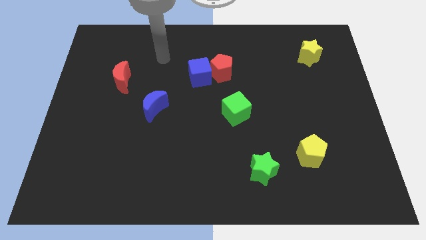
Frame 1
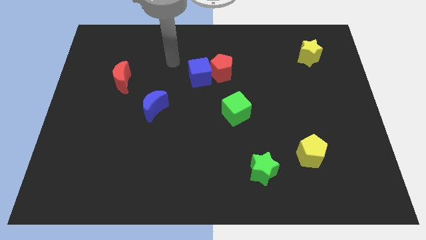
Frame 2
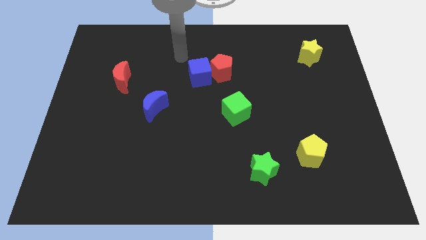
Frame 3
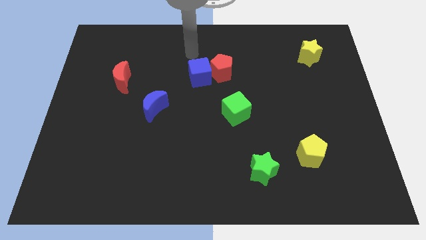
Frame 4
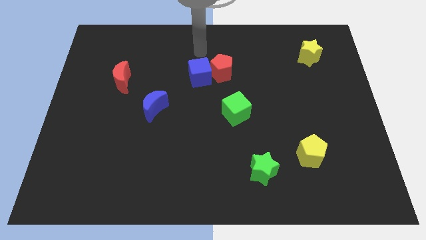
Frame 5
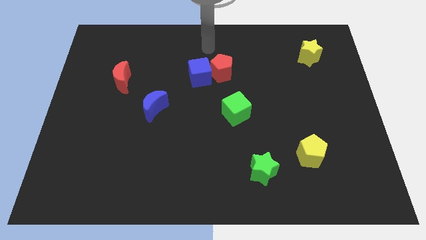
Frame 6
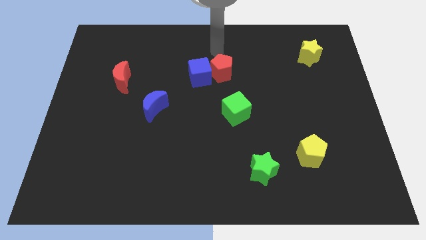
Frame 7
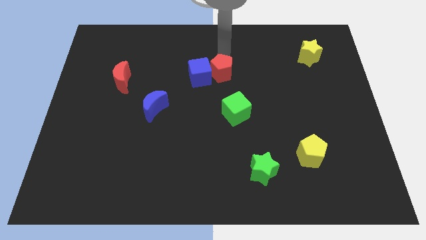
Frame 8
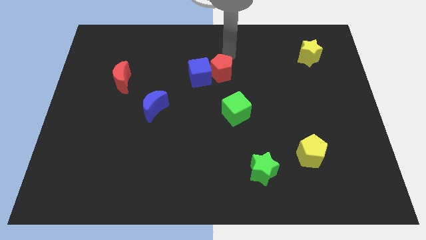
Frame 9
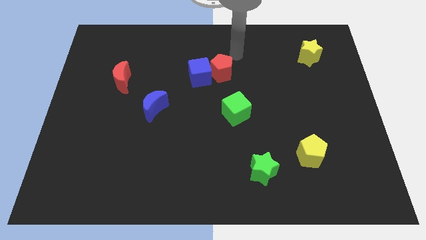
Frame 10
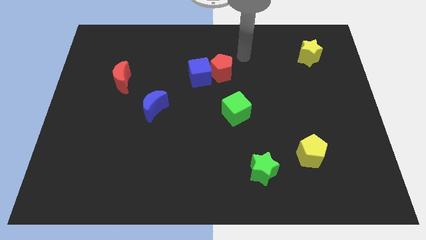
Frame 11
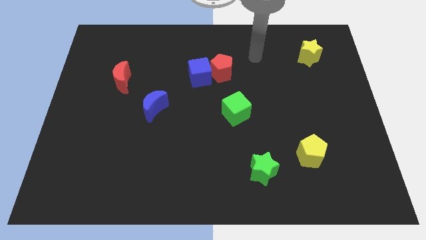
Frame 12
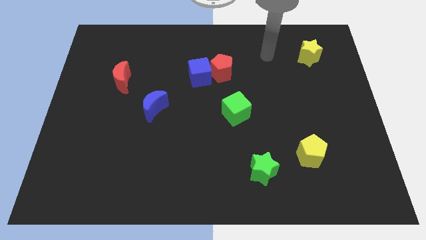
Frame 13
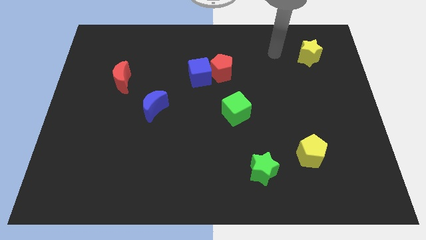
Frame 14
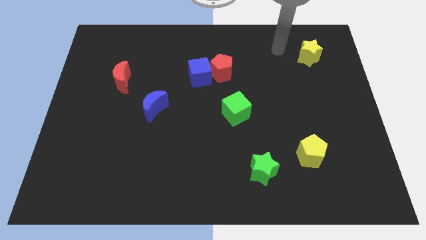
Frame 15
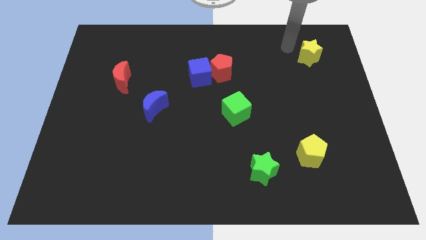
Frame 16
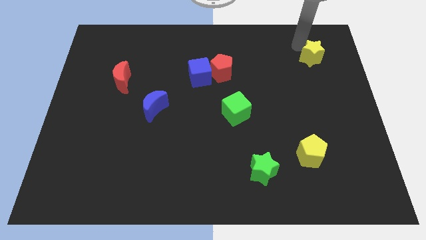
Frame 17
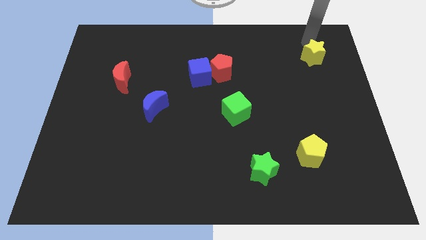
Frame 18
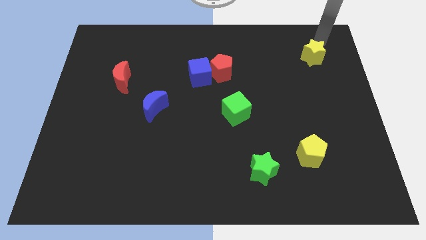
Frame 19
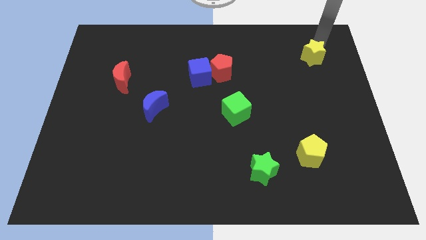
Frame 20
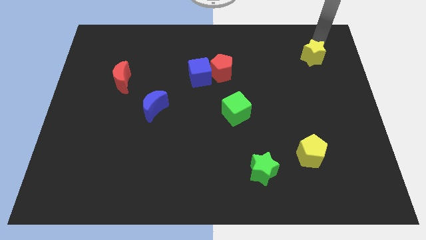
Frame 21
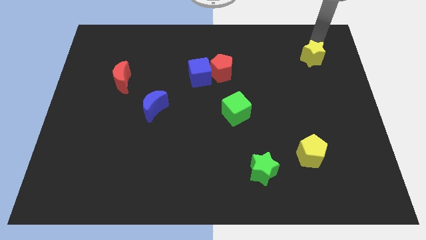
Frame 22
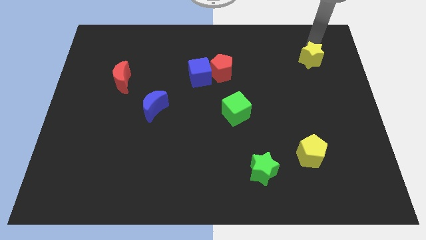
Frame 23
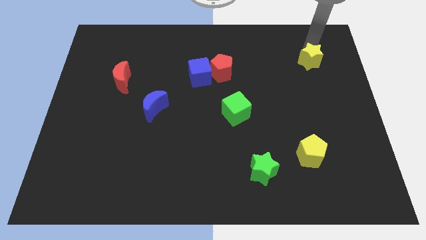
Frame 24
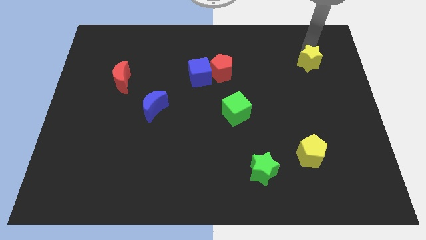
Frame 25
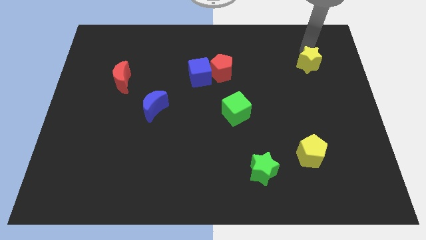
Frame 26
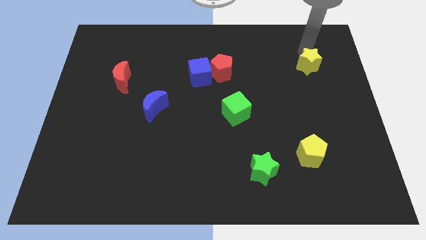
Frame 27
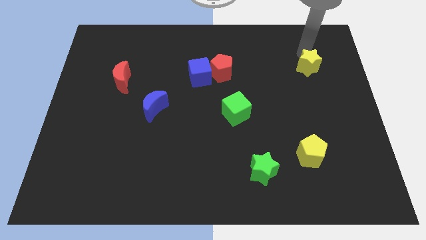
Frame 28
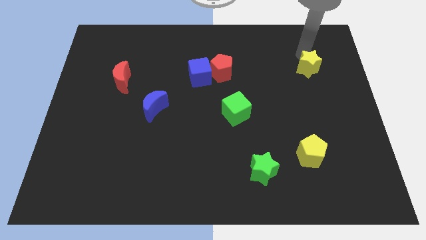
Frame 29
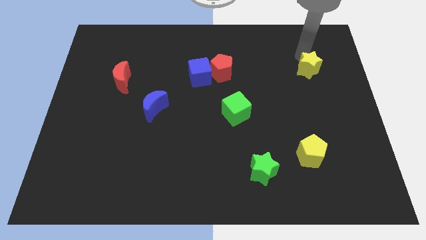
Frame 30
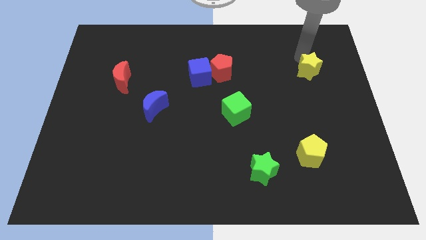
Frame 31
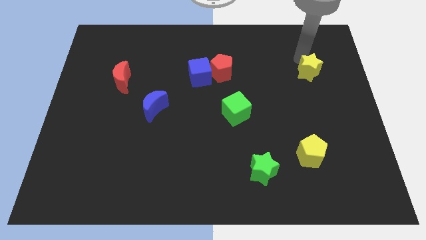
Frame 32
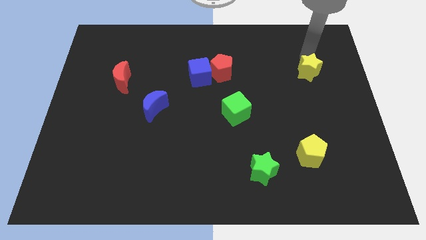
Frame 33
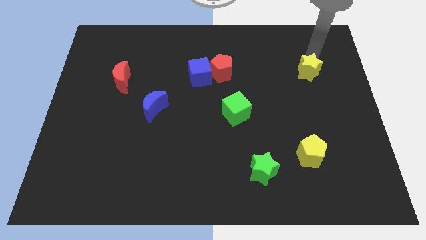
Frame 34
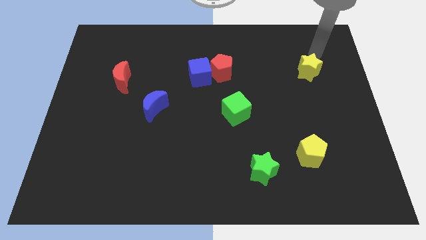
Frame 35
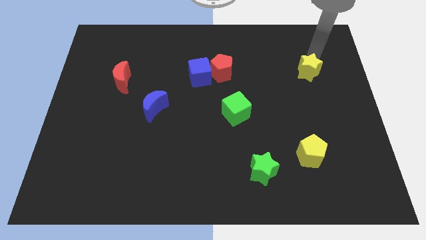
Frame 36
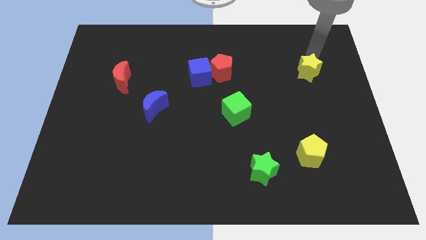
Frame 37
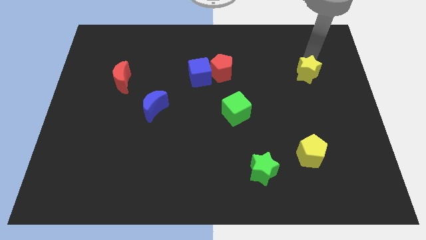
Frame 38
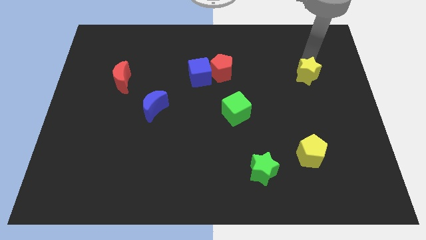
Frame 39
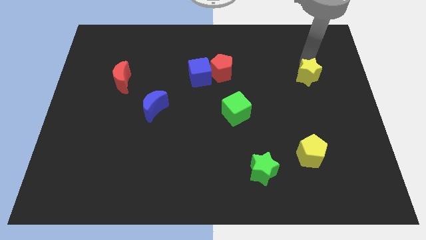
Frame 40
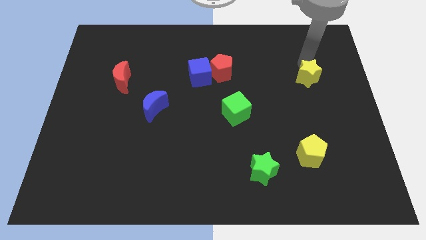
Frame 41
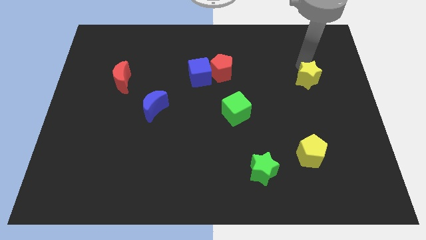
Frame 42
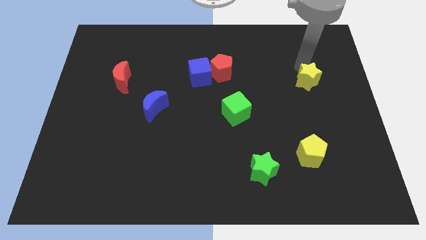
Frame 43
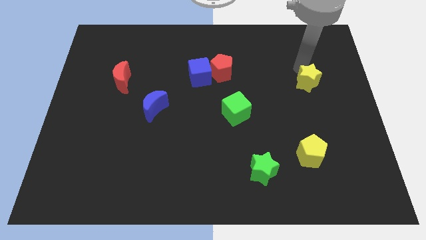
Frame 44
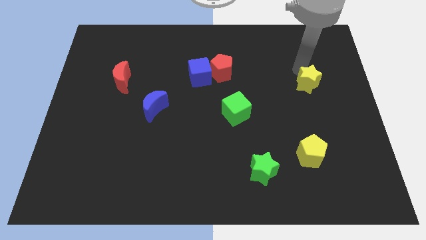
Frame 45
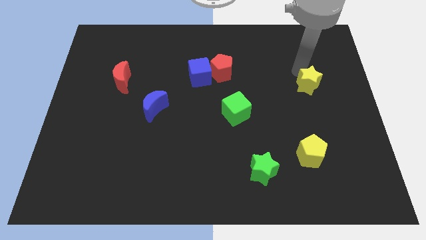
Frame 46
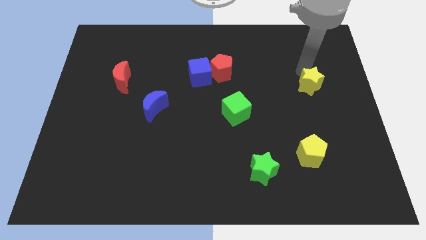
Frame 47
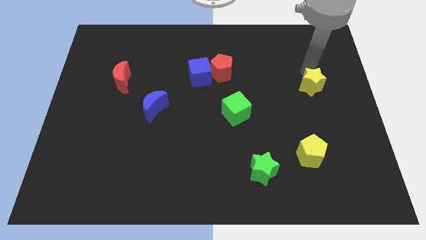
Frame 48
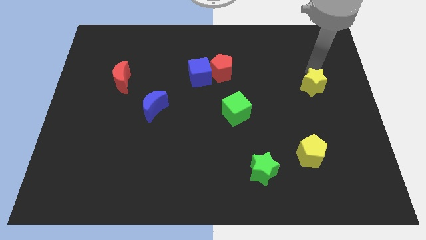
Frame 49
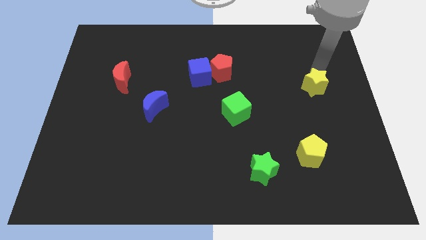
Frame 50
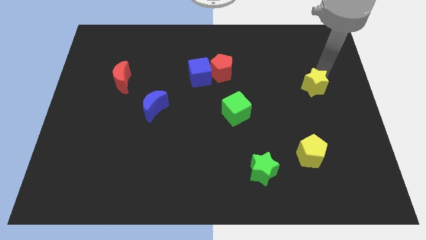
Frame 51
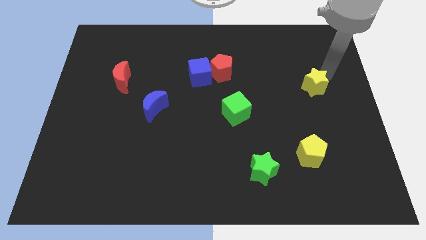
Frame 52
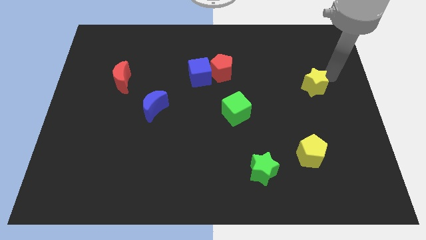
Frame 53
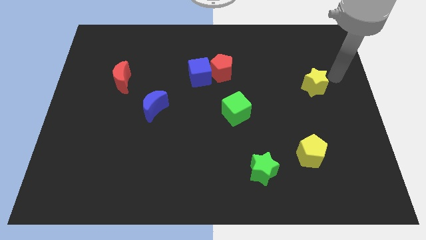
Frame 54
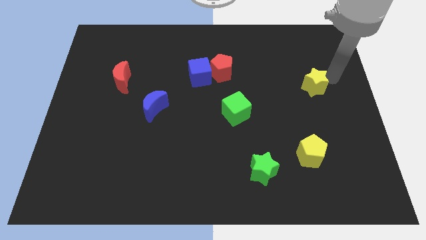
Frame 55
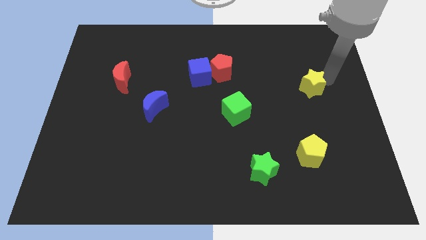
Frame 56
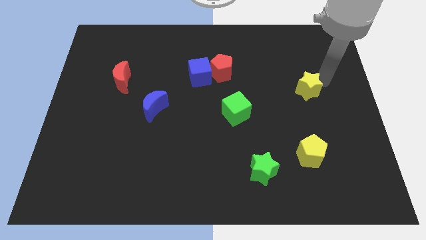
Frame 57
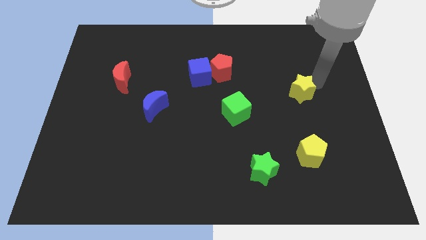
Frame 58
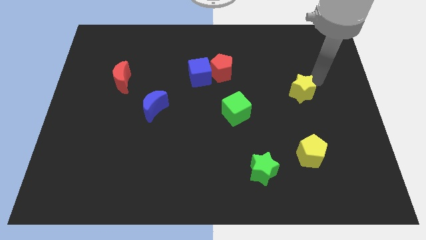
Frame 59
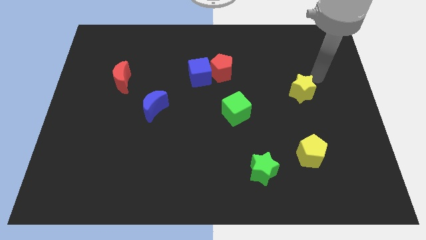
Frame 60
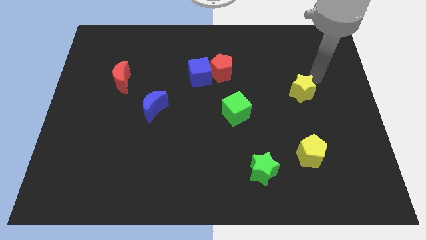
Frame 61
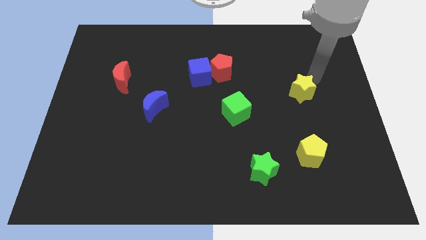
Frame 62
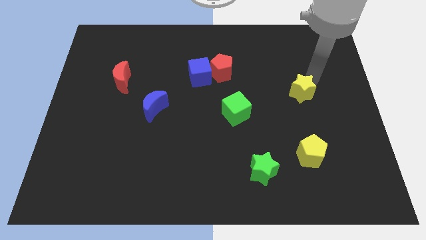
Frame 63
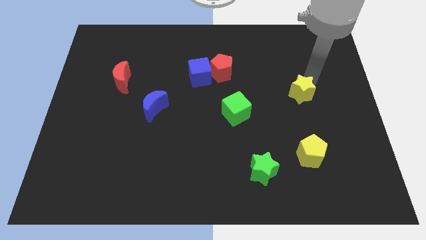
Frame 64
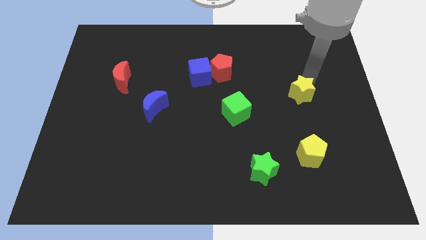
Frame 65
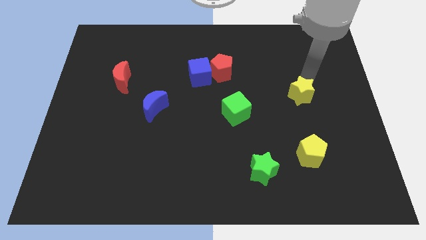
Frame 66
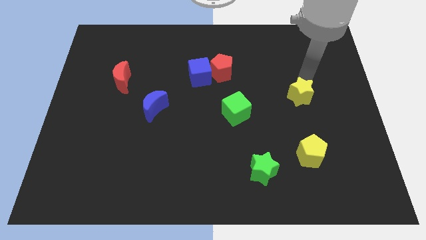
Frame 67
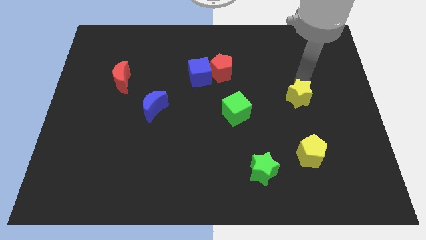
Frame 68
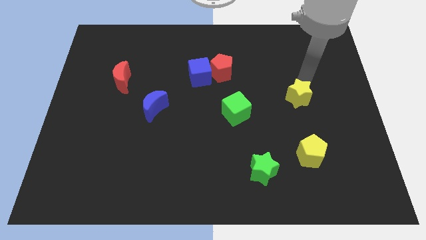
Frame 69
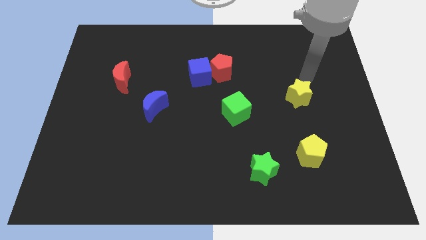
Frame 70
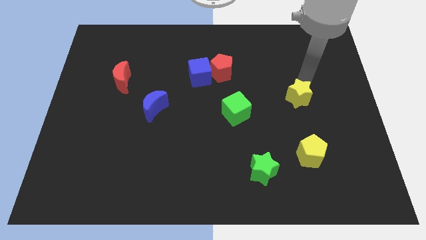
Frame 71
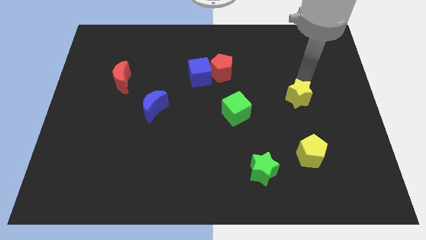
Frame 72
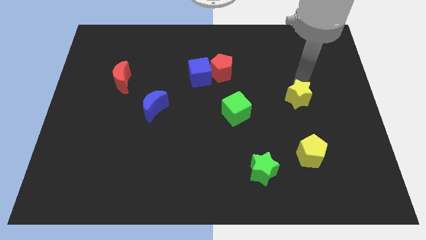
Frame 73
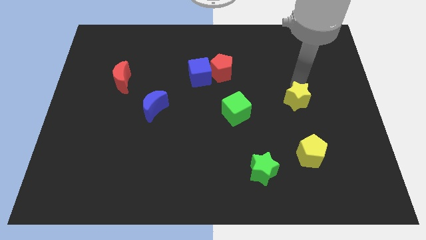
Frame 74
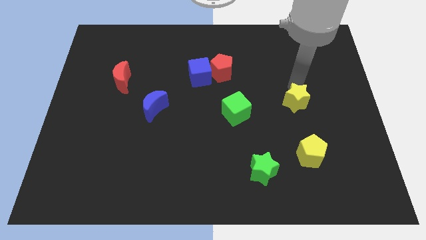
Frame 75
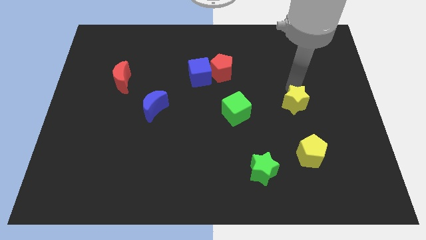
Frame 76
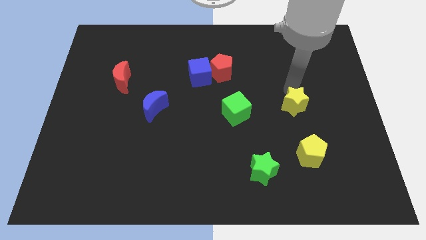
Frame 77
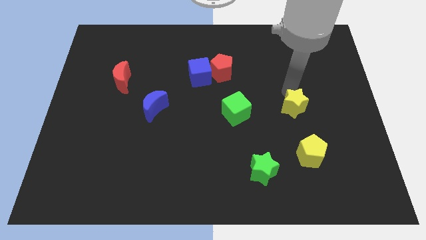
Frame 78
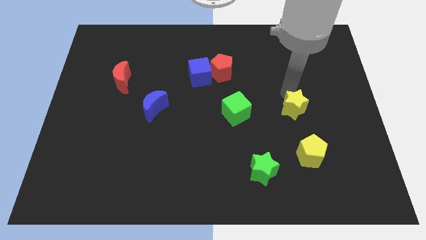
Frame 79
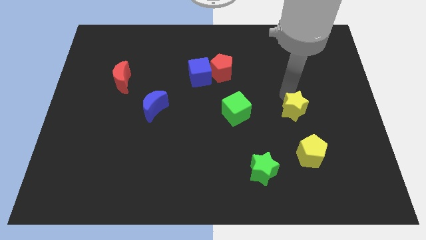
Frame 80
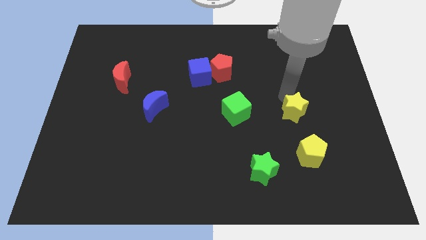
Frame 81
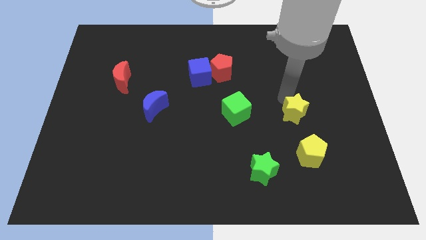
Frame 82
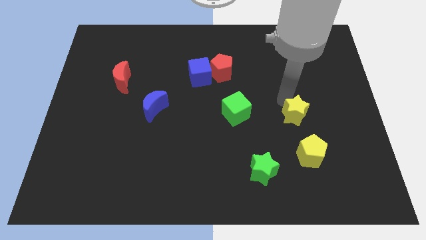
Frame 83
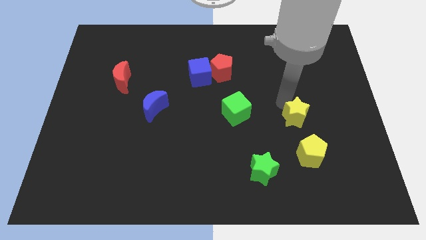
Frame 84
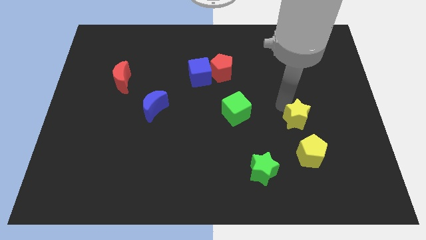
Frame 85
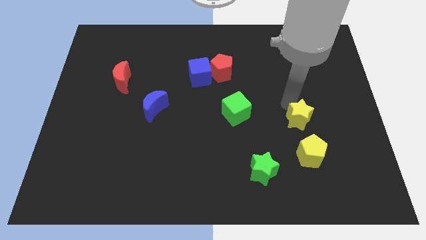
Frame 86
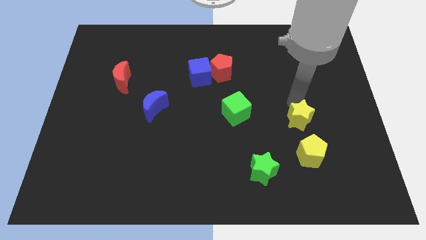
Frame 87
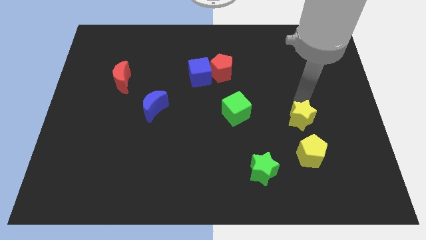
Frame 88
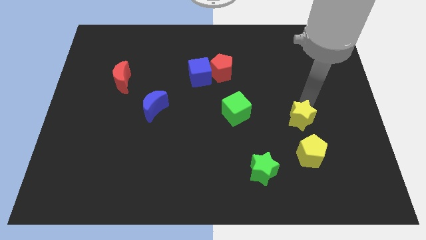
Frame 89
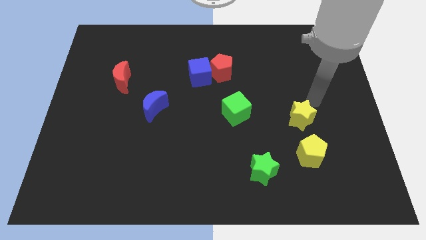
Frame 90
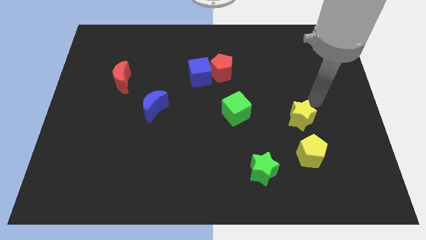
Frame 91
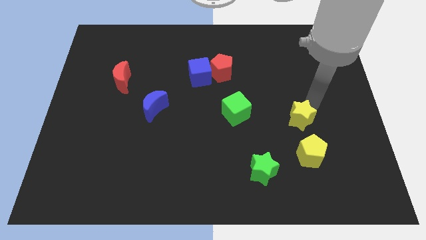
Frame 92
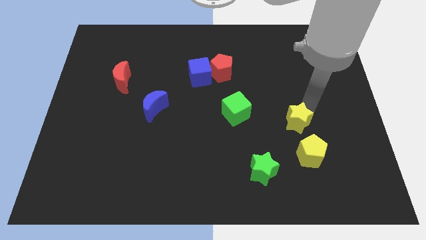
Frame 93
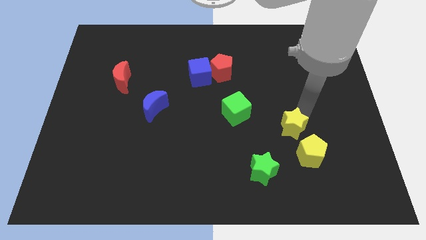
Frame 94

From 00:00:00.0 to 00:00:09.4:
slide the yellow star to the top left of the yellow pentagon
